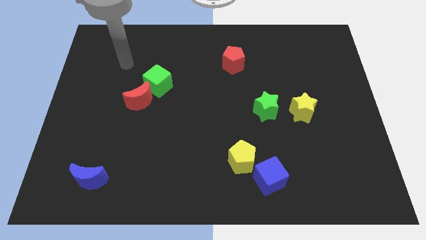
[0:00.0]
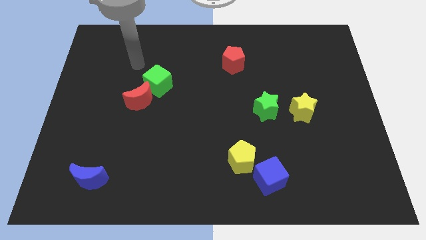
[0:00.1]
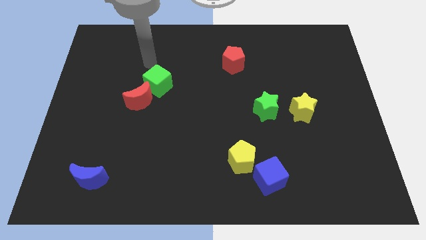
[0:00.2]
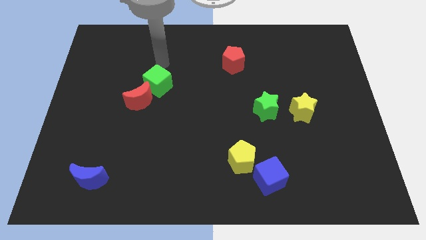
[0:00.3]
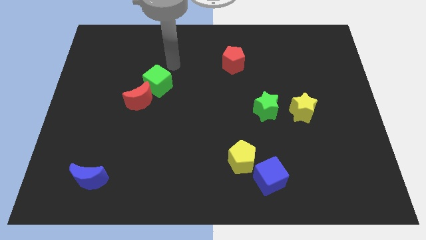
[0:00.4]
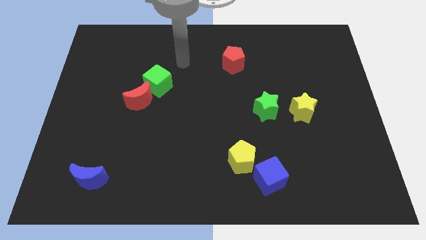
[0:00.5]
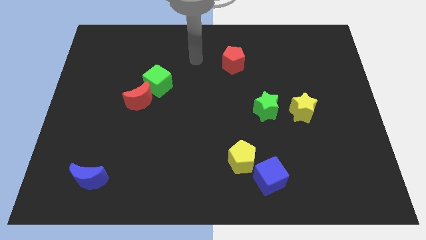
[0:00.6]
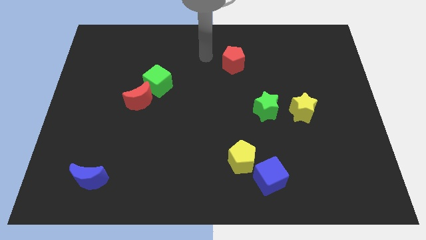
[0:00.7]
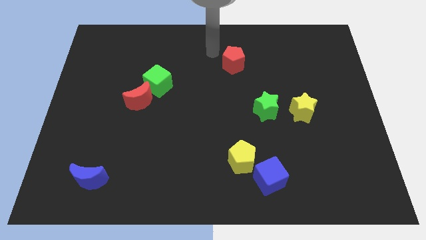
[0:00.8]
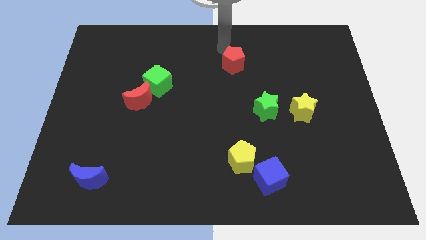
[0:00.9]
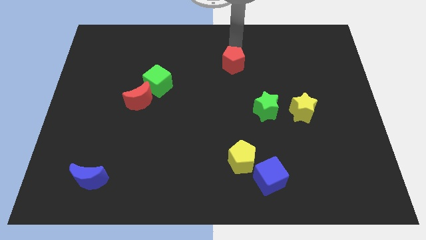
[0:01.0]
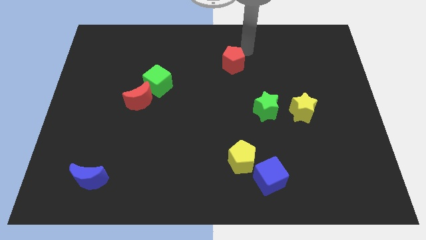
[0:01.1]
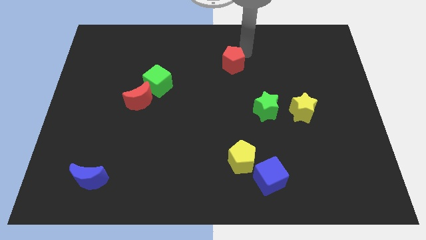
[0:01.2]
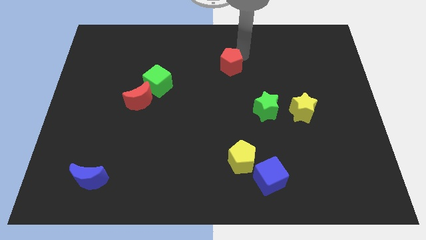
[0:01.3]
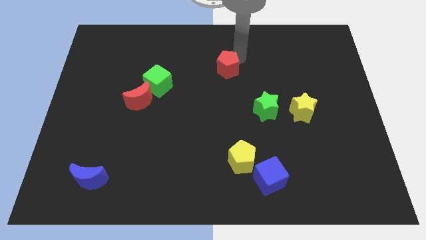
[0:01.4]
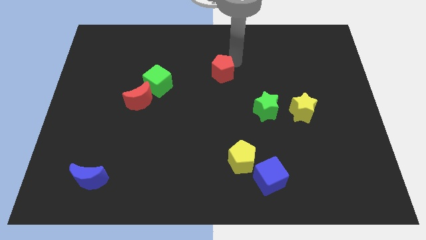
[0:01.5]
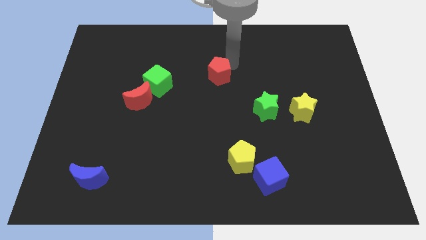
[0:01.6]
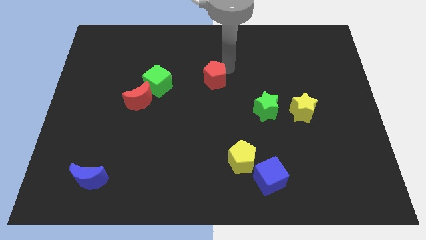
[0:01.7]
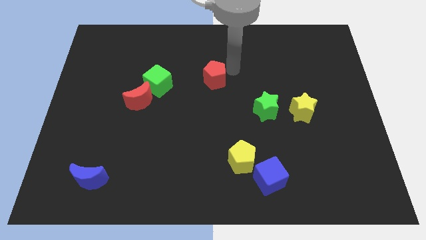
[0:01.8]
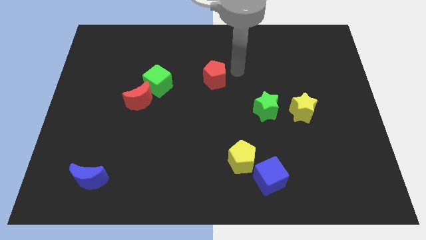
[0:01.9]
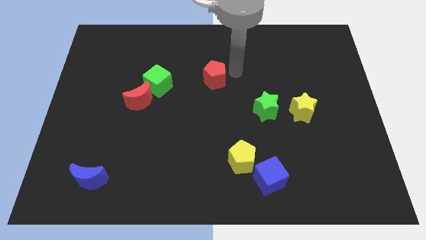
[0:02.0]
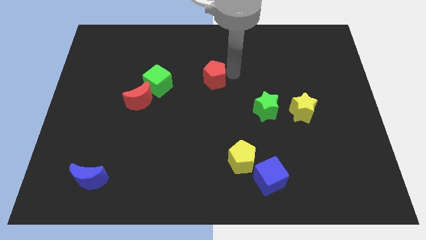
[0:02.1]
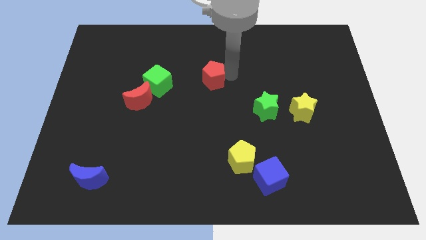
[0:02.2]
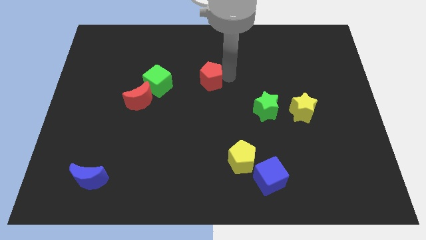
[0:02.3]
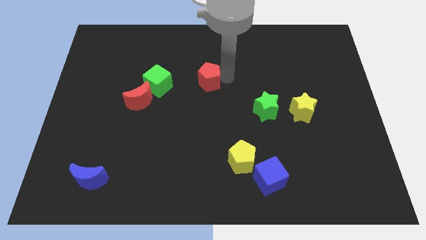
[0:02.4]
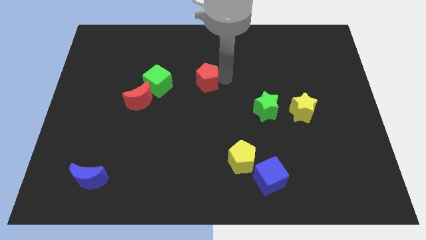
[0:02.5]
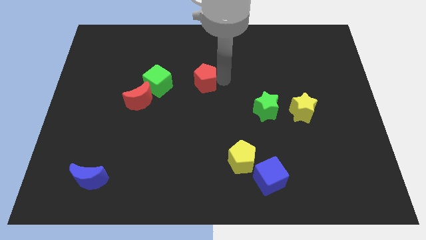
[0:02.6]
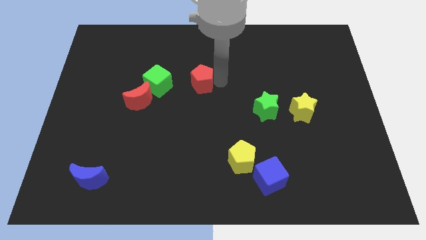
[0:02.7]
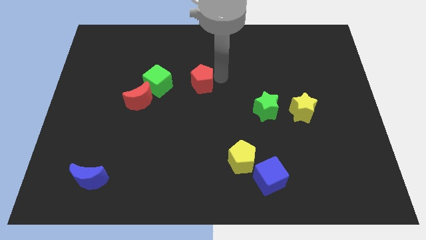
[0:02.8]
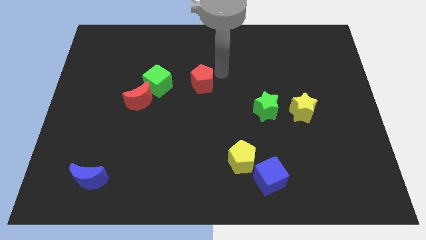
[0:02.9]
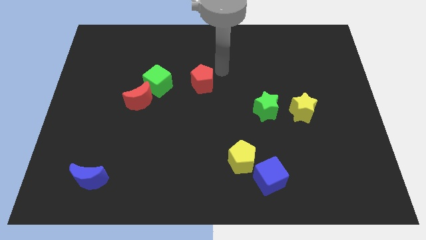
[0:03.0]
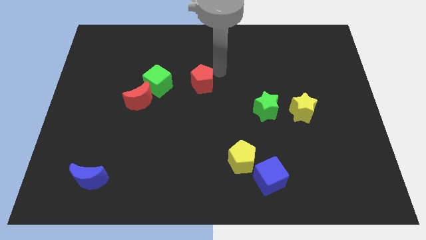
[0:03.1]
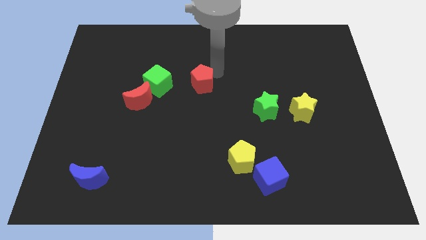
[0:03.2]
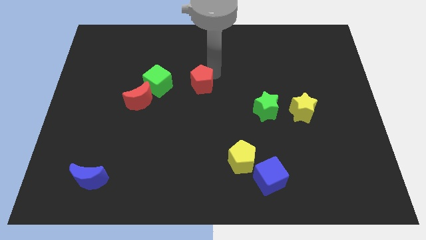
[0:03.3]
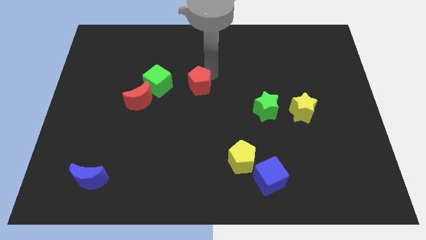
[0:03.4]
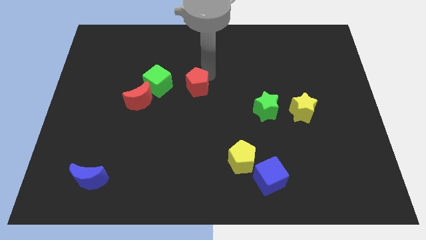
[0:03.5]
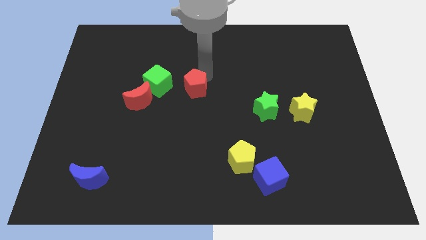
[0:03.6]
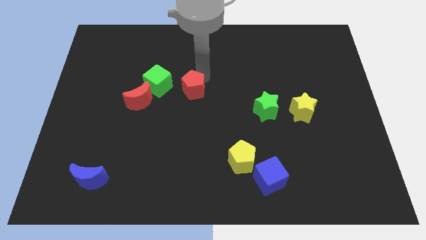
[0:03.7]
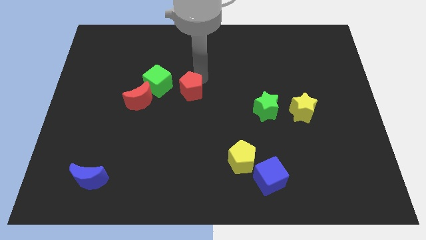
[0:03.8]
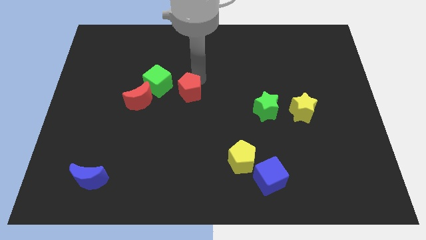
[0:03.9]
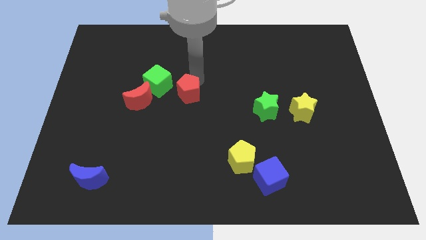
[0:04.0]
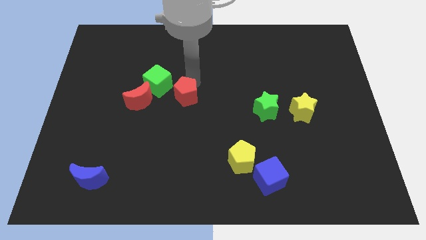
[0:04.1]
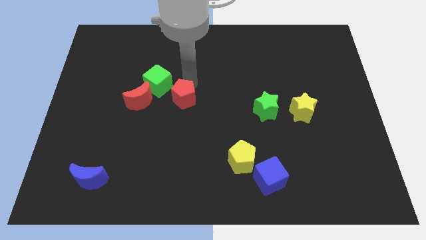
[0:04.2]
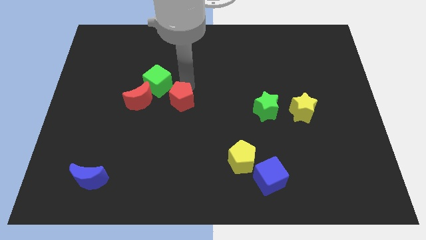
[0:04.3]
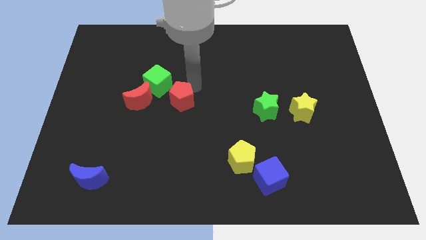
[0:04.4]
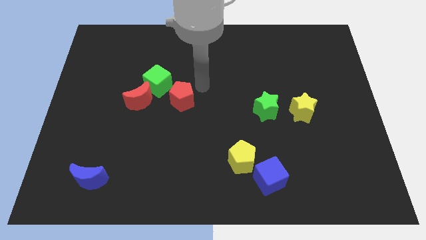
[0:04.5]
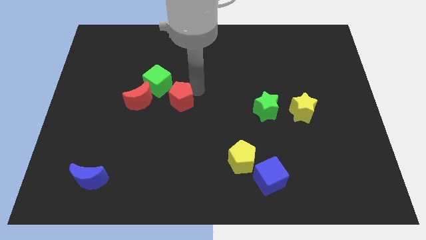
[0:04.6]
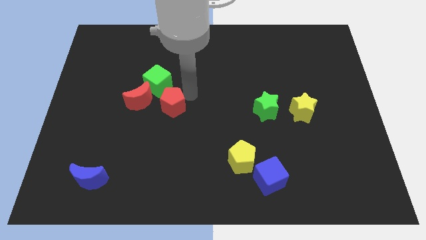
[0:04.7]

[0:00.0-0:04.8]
move the red pentagon to the bottom of the green cube

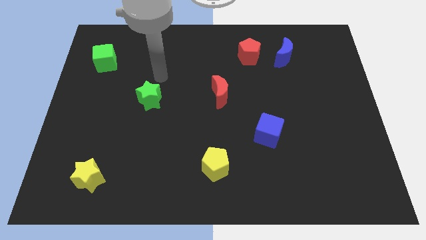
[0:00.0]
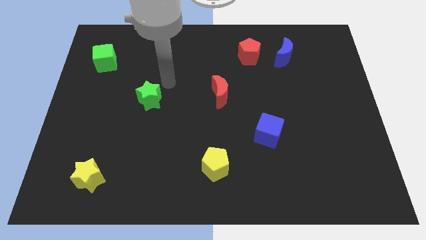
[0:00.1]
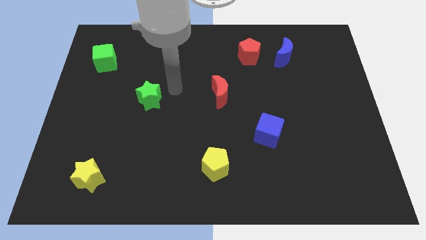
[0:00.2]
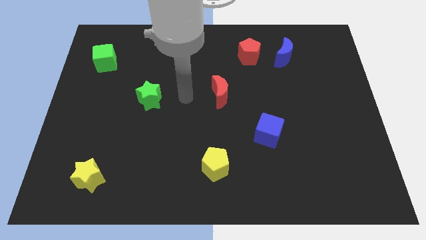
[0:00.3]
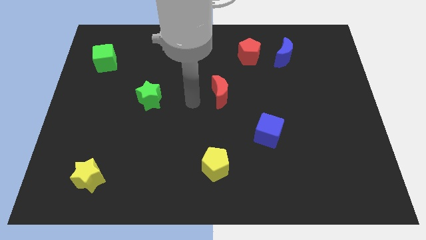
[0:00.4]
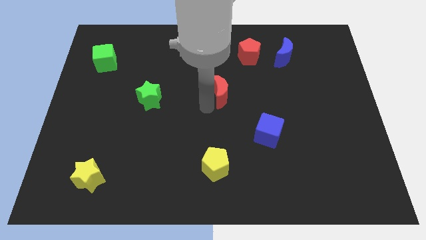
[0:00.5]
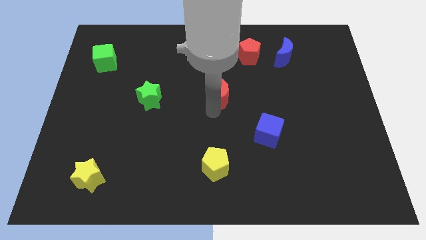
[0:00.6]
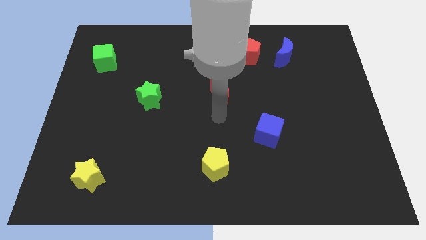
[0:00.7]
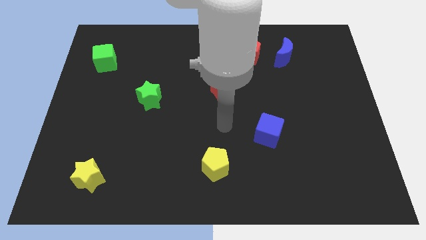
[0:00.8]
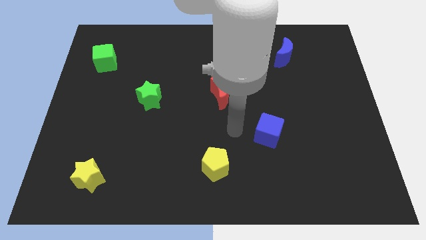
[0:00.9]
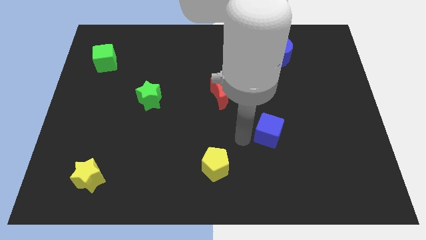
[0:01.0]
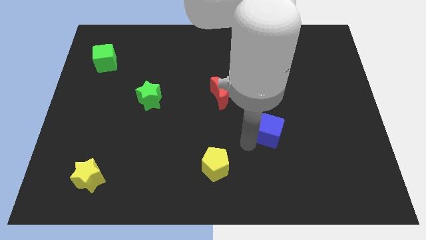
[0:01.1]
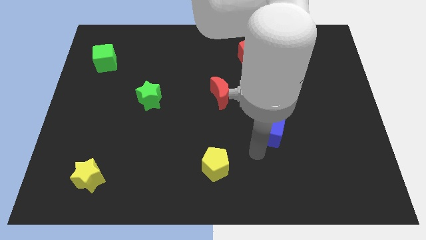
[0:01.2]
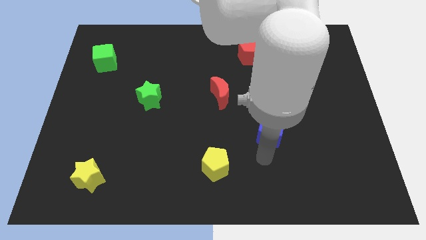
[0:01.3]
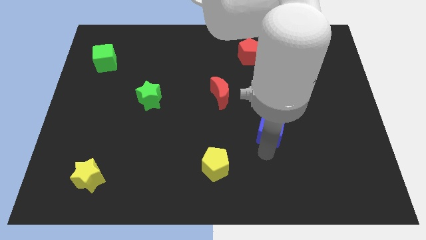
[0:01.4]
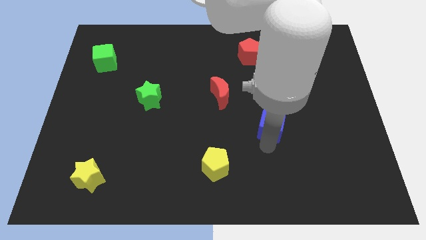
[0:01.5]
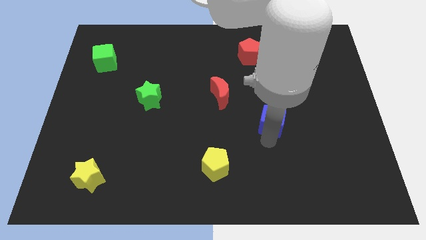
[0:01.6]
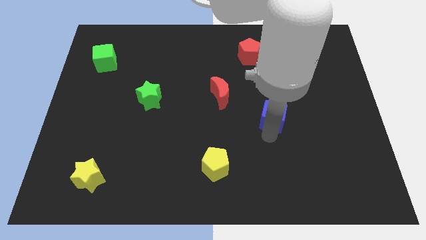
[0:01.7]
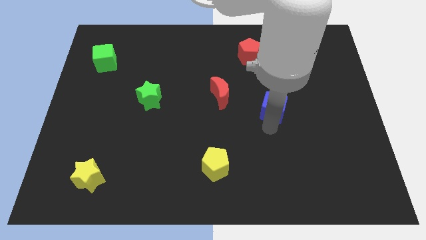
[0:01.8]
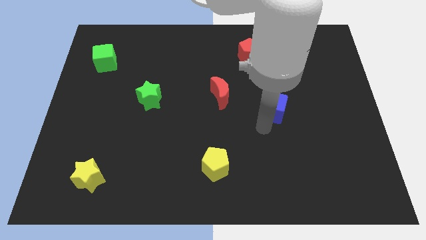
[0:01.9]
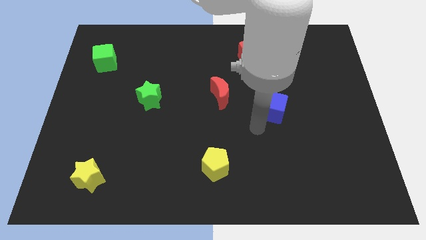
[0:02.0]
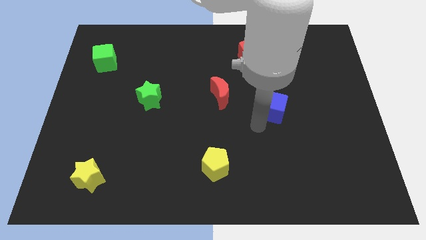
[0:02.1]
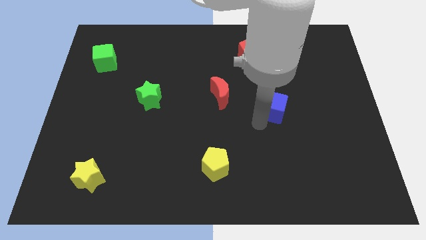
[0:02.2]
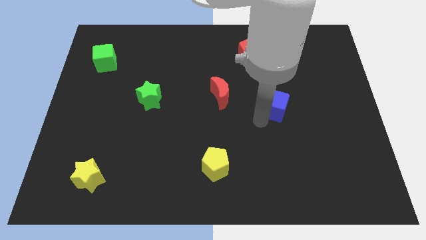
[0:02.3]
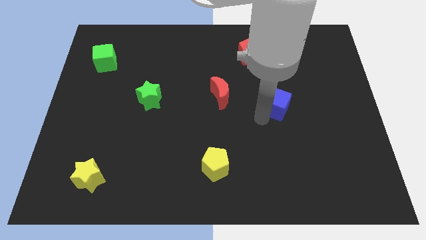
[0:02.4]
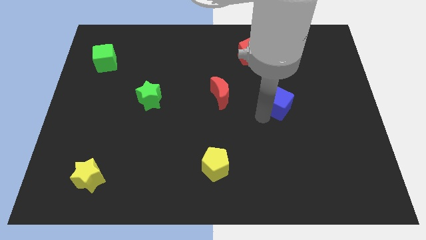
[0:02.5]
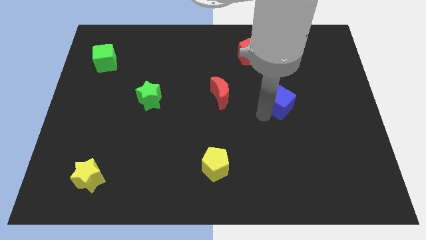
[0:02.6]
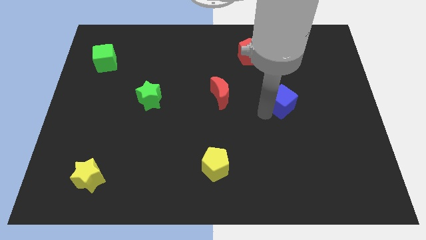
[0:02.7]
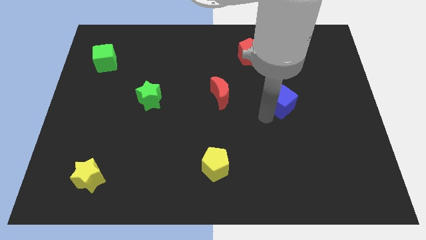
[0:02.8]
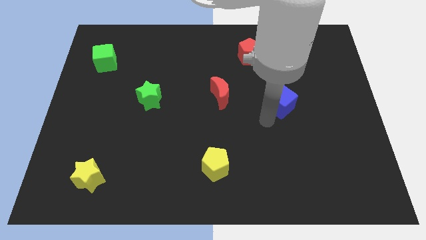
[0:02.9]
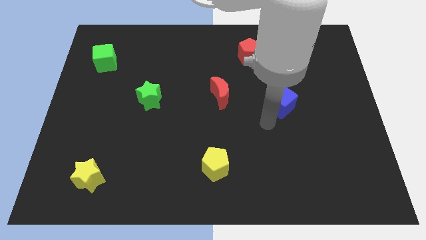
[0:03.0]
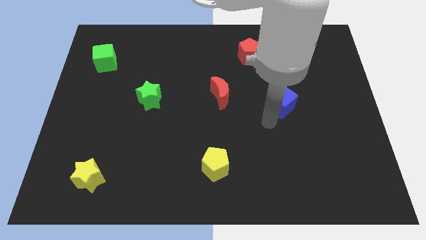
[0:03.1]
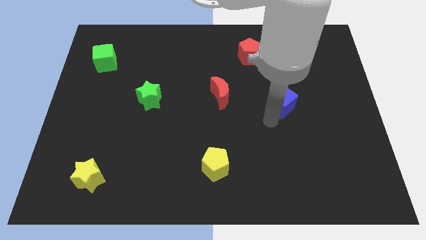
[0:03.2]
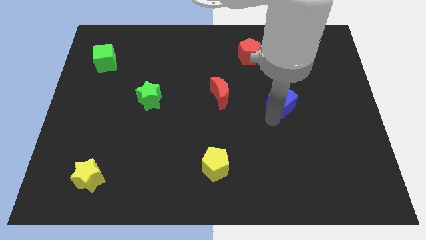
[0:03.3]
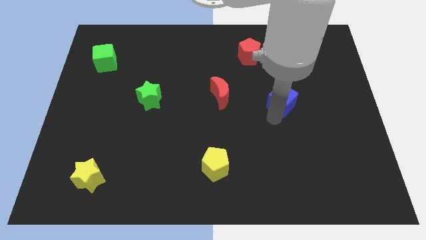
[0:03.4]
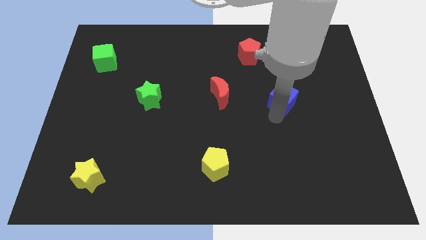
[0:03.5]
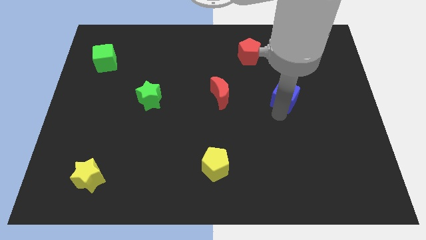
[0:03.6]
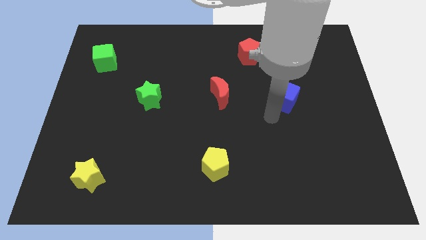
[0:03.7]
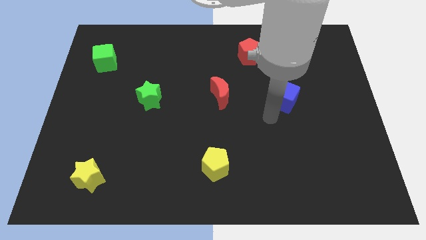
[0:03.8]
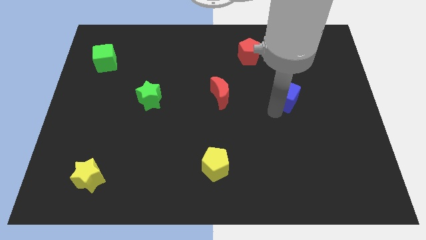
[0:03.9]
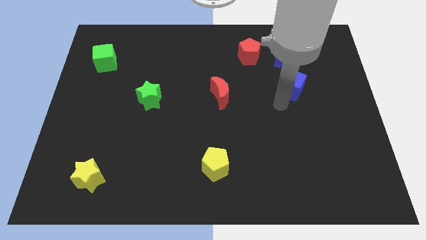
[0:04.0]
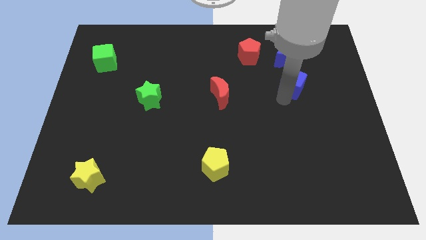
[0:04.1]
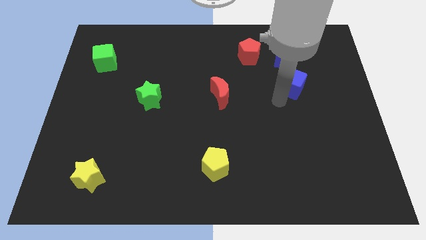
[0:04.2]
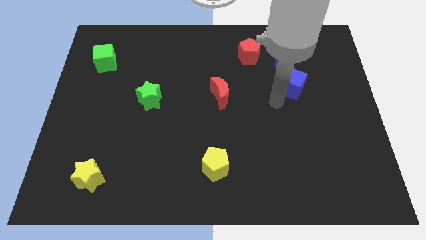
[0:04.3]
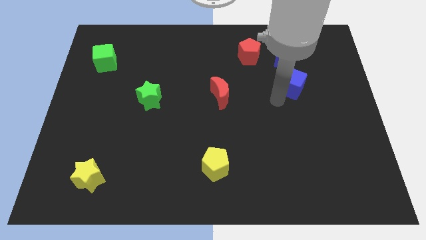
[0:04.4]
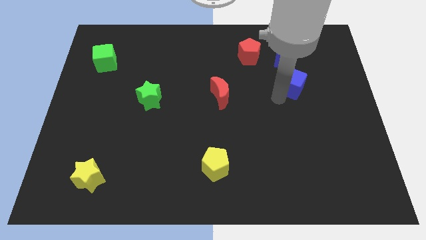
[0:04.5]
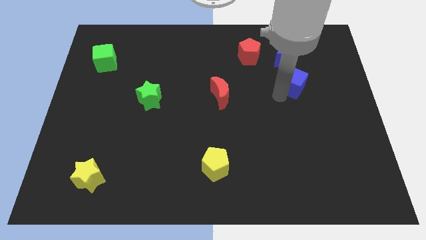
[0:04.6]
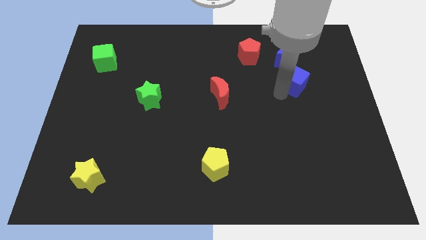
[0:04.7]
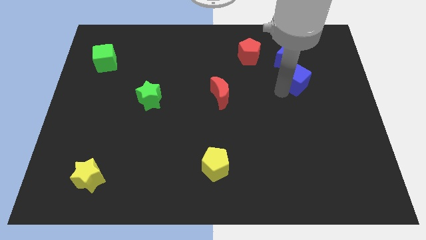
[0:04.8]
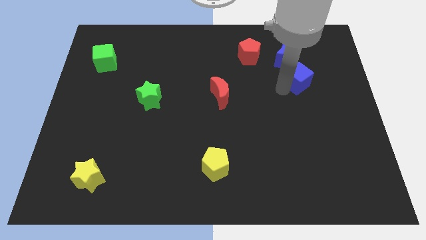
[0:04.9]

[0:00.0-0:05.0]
push the blue cube diagonally down and to the right of the blue moon
